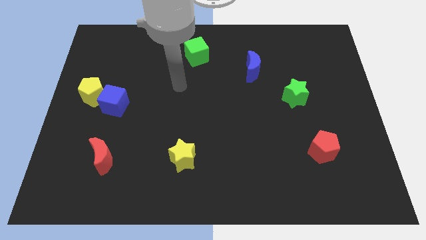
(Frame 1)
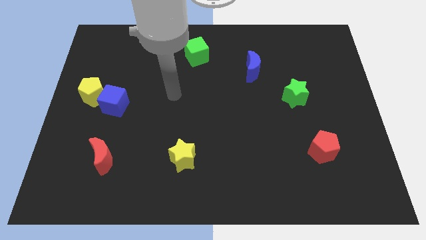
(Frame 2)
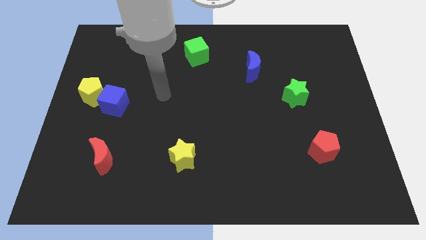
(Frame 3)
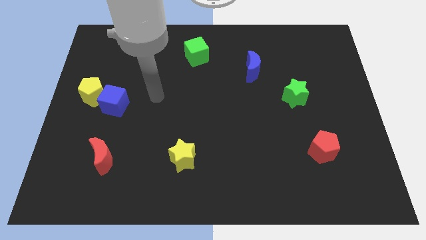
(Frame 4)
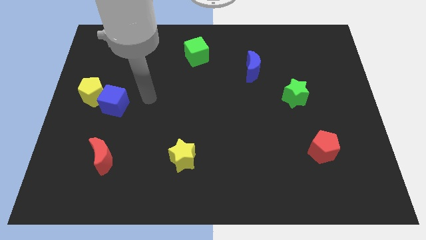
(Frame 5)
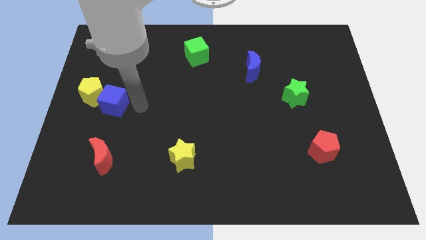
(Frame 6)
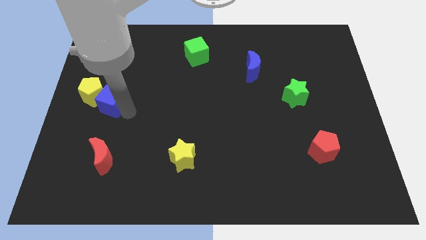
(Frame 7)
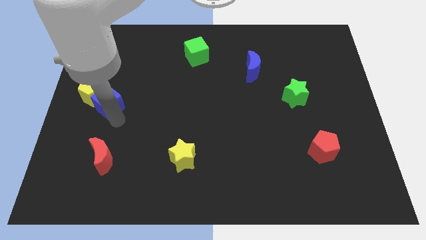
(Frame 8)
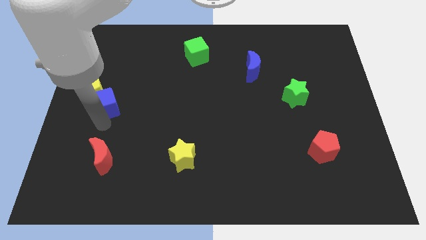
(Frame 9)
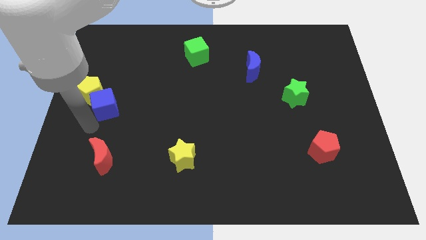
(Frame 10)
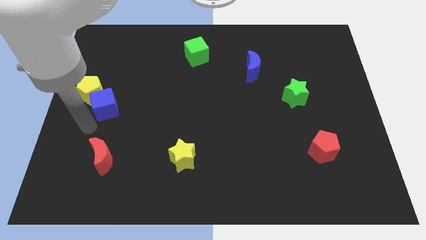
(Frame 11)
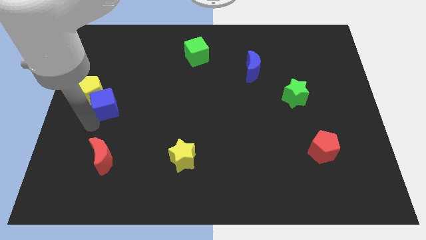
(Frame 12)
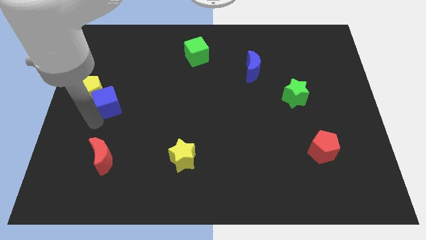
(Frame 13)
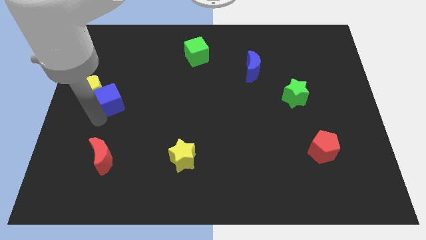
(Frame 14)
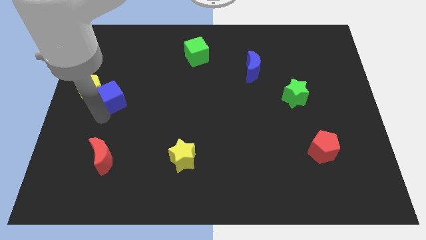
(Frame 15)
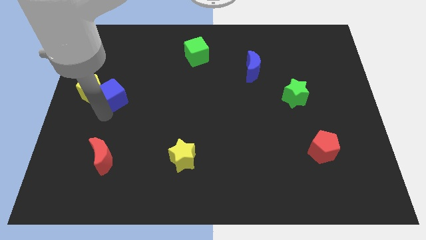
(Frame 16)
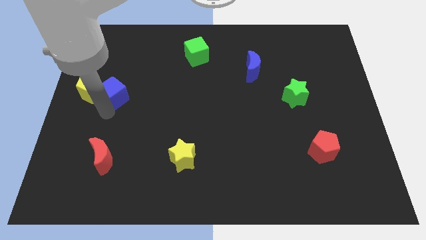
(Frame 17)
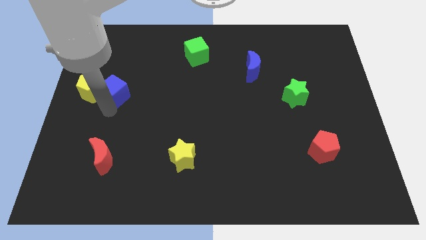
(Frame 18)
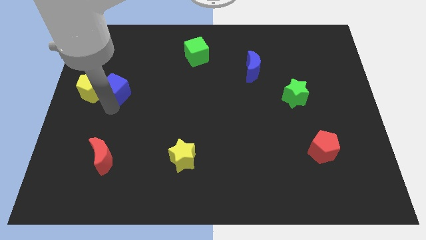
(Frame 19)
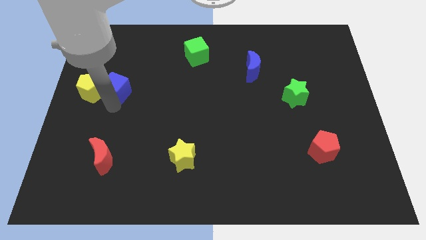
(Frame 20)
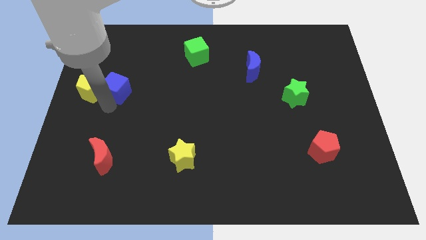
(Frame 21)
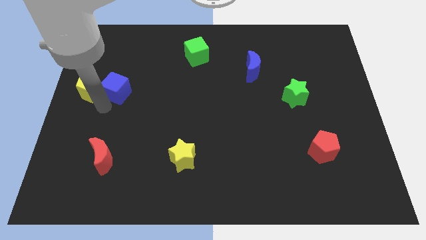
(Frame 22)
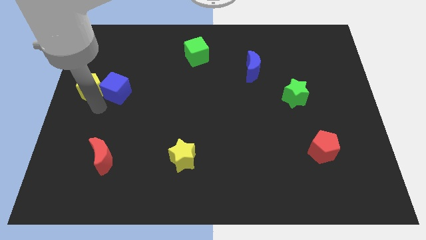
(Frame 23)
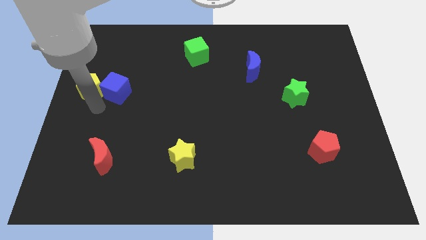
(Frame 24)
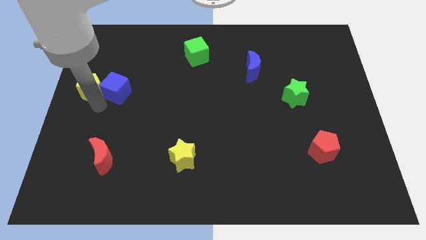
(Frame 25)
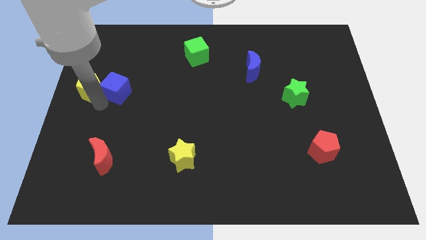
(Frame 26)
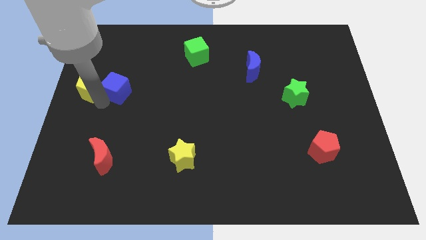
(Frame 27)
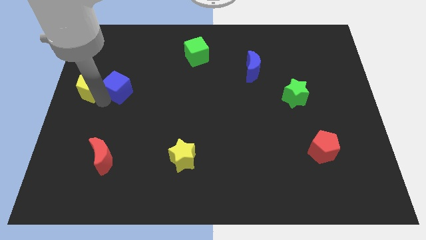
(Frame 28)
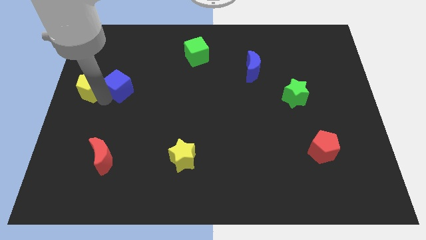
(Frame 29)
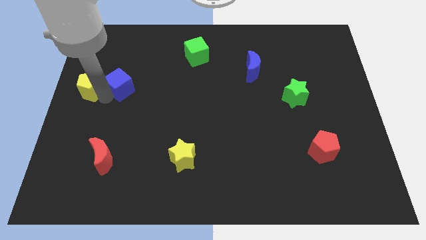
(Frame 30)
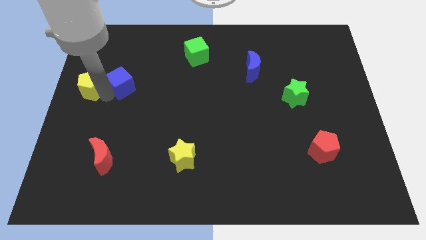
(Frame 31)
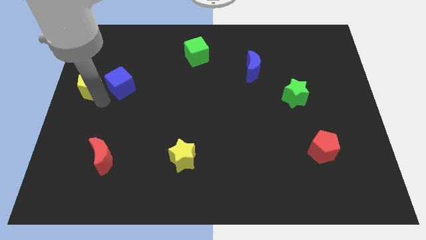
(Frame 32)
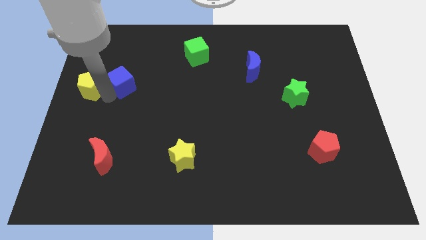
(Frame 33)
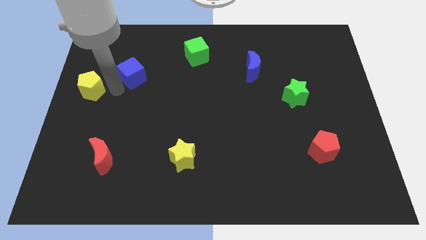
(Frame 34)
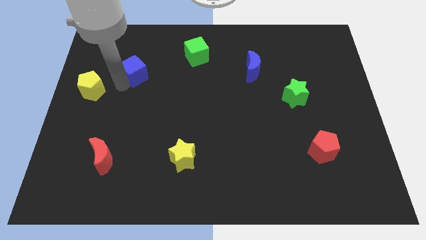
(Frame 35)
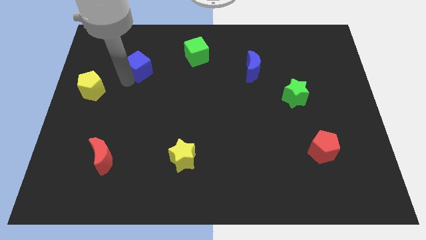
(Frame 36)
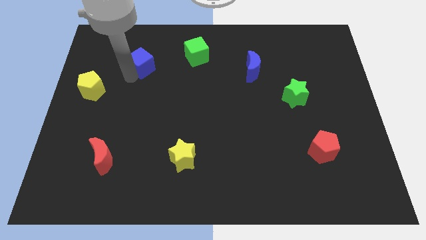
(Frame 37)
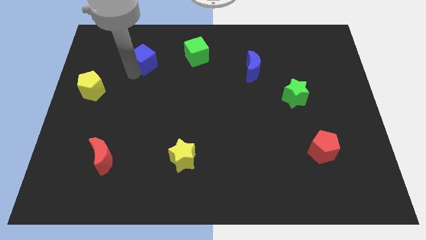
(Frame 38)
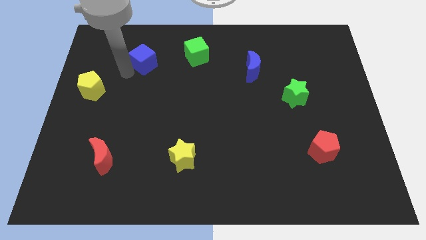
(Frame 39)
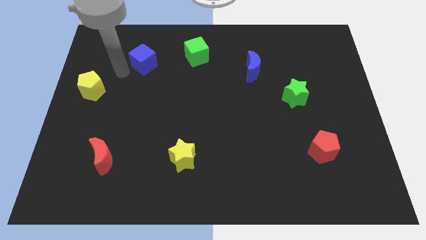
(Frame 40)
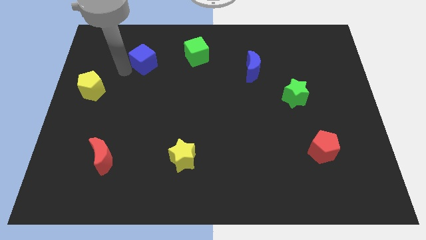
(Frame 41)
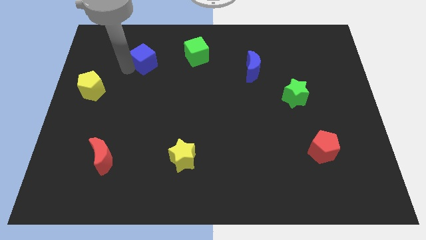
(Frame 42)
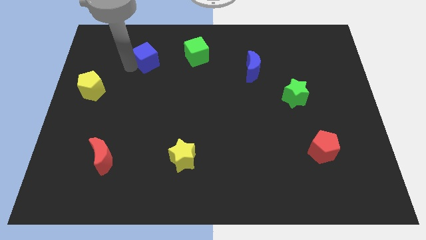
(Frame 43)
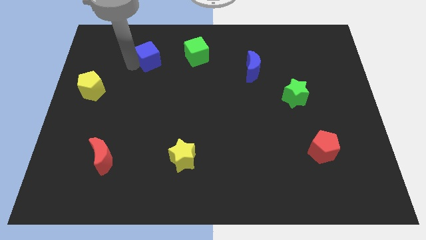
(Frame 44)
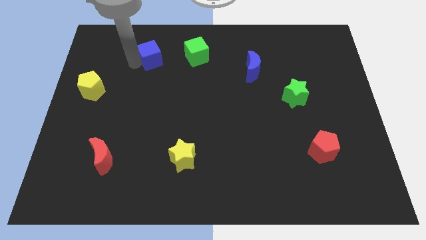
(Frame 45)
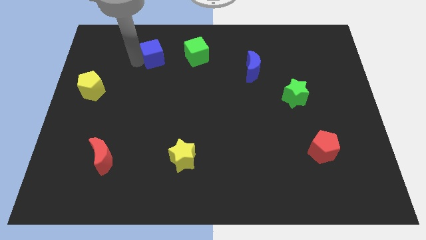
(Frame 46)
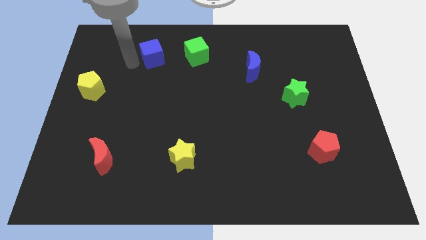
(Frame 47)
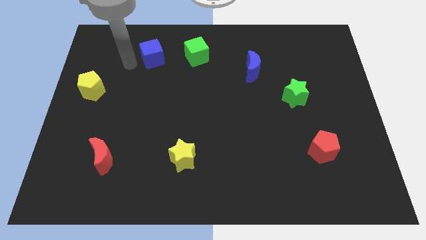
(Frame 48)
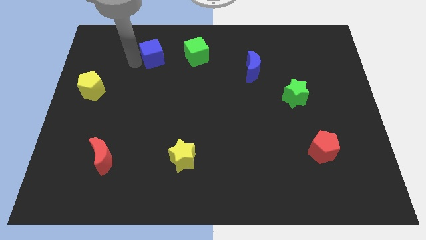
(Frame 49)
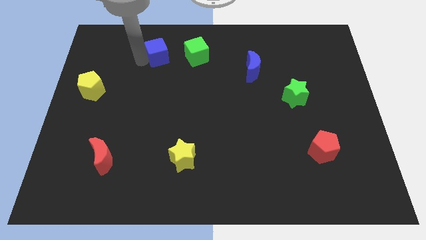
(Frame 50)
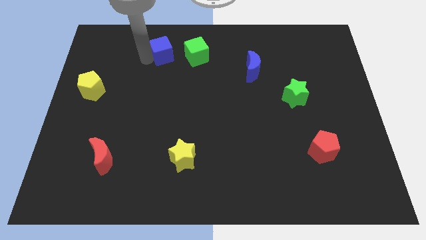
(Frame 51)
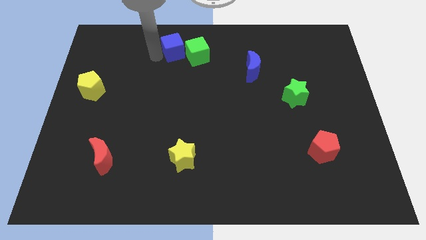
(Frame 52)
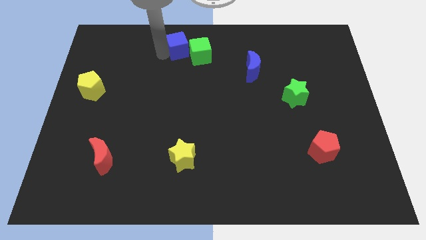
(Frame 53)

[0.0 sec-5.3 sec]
move the blue cube to the top

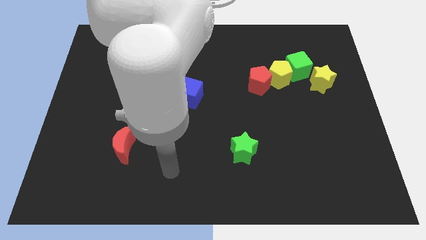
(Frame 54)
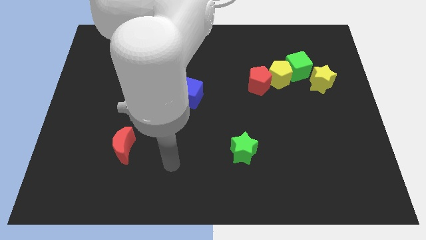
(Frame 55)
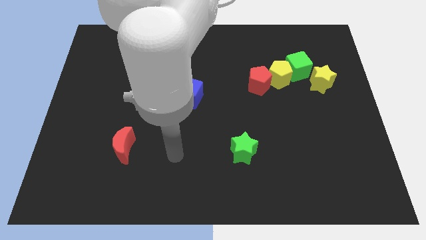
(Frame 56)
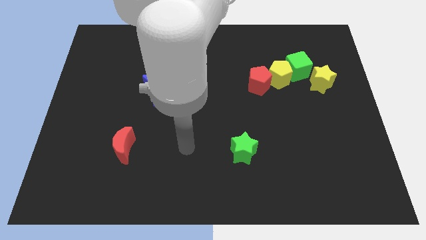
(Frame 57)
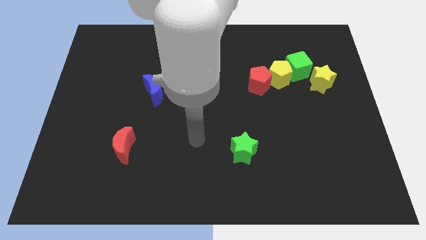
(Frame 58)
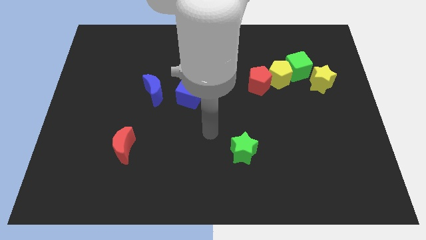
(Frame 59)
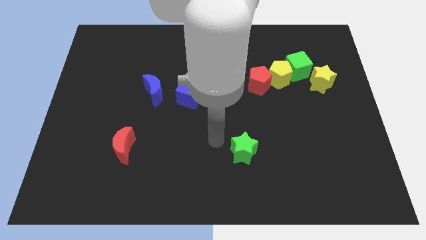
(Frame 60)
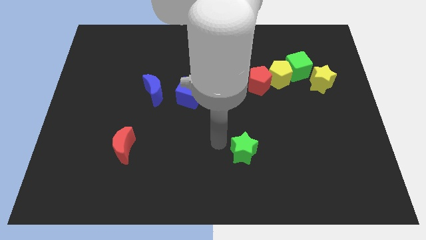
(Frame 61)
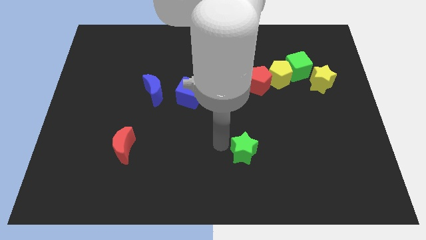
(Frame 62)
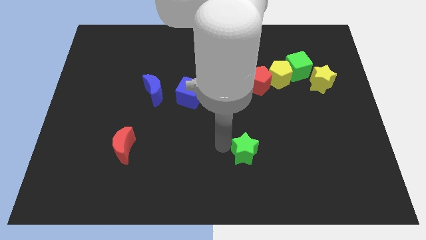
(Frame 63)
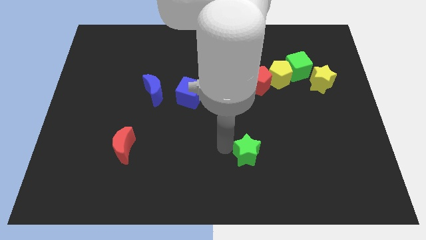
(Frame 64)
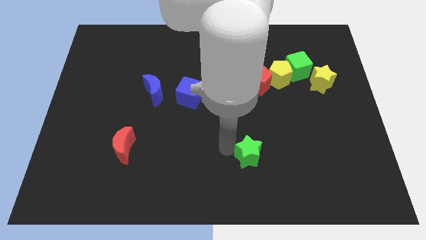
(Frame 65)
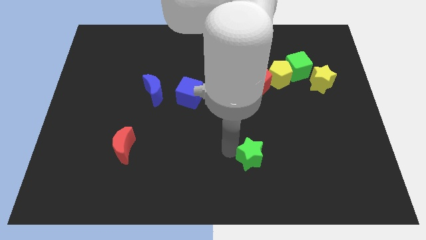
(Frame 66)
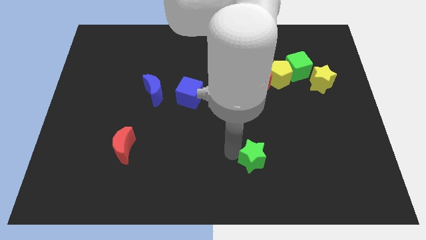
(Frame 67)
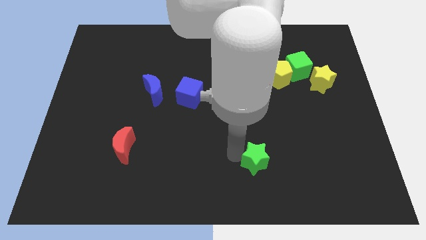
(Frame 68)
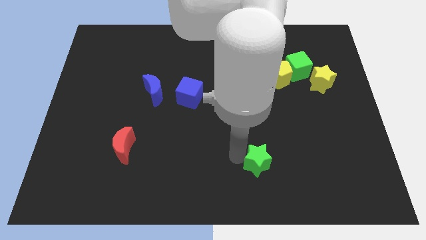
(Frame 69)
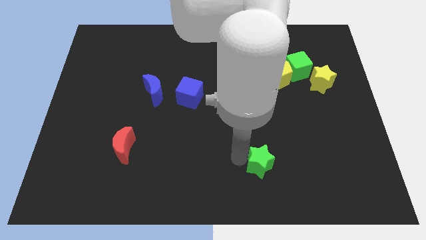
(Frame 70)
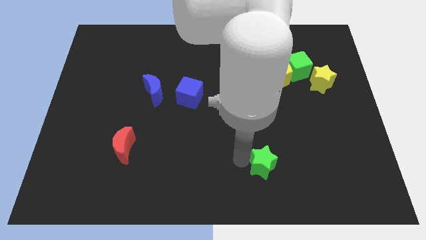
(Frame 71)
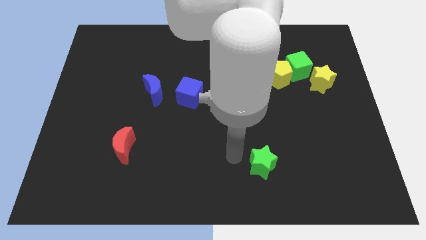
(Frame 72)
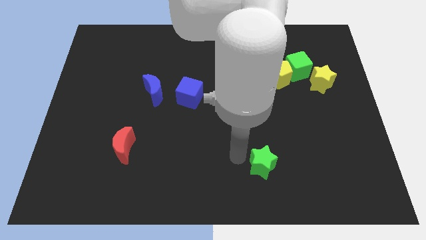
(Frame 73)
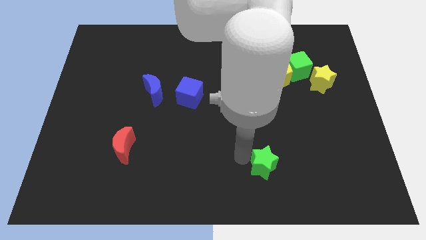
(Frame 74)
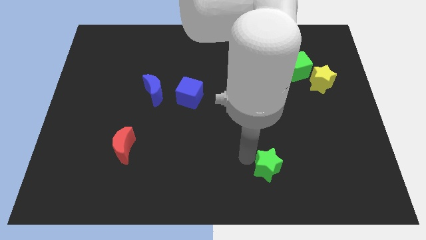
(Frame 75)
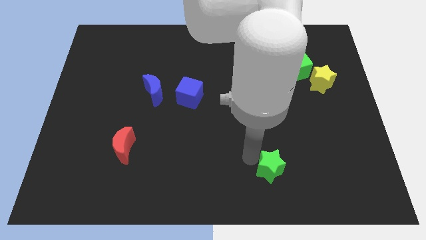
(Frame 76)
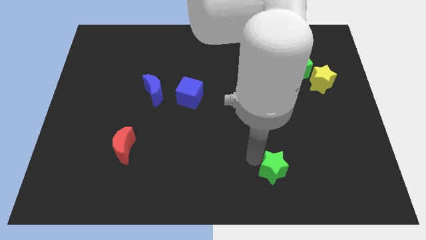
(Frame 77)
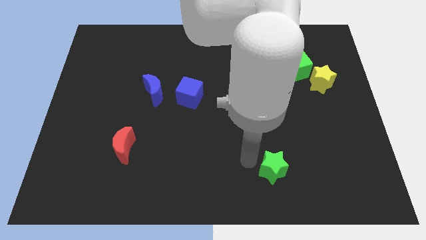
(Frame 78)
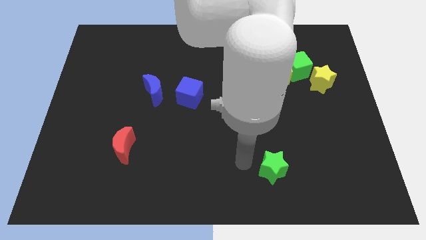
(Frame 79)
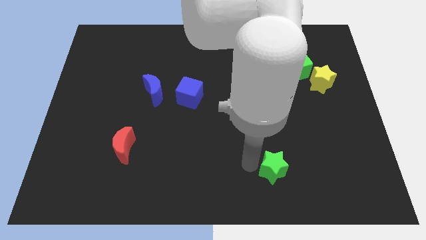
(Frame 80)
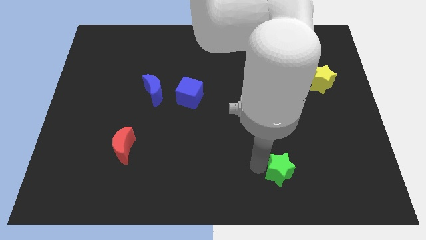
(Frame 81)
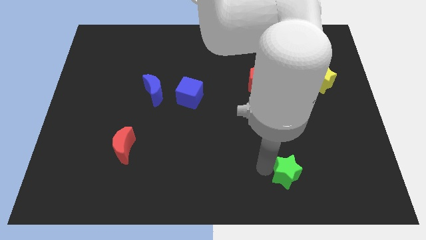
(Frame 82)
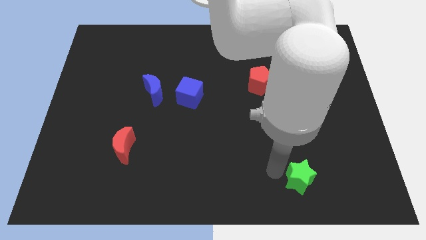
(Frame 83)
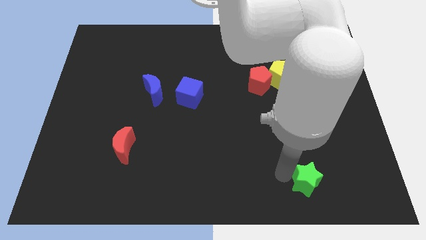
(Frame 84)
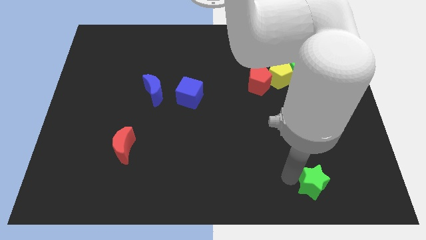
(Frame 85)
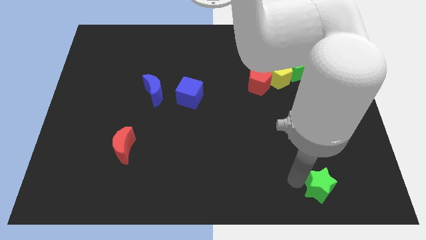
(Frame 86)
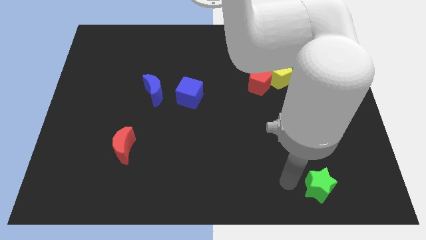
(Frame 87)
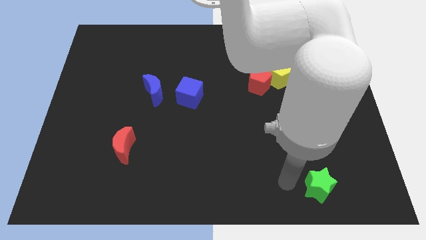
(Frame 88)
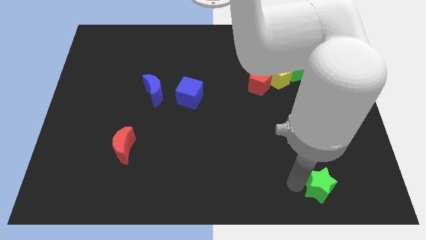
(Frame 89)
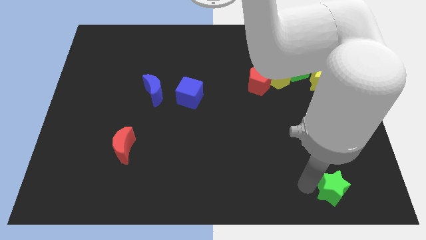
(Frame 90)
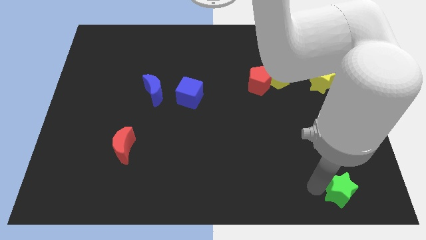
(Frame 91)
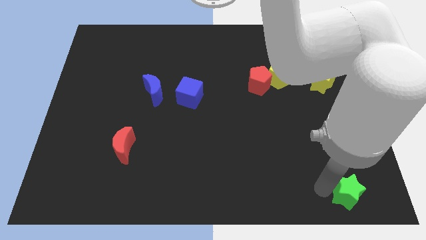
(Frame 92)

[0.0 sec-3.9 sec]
slide the green star to the bottom right corner
